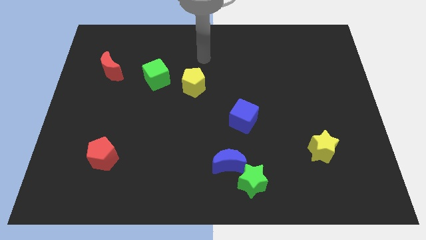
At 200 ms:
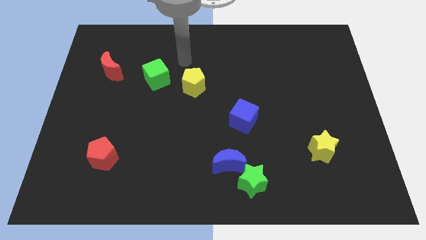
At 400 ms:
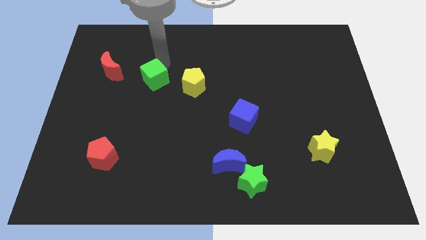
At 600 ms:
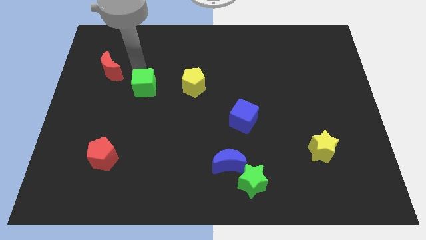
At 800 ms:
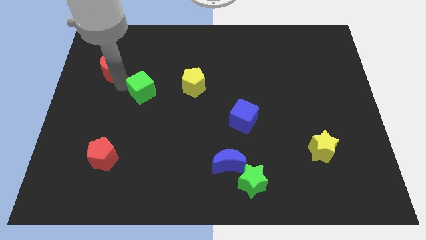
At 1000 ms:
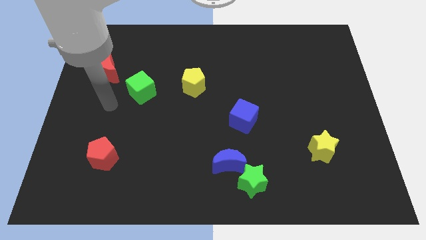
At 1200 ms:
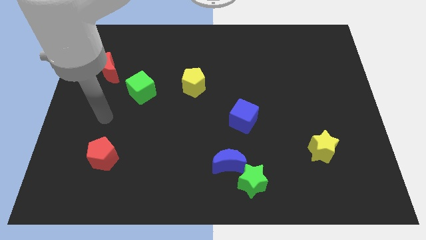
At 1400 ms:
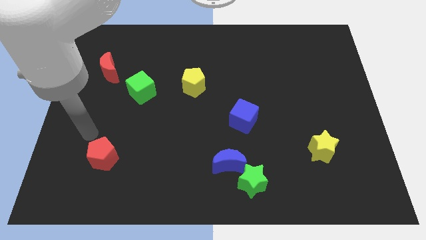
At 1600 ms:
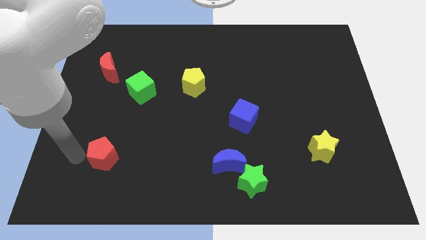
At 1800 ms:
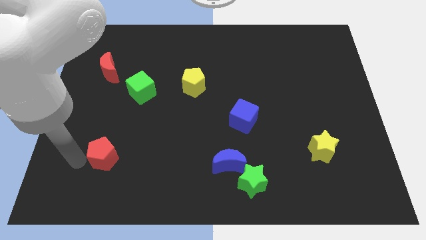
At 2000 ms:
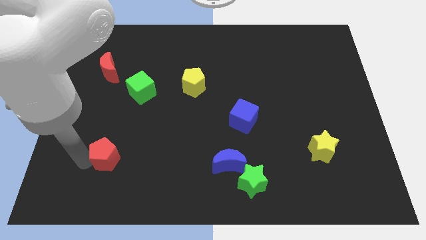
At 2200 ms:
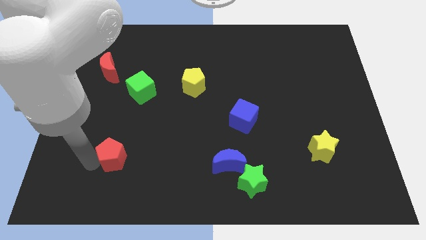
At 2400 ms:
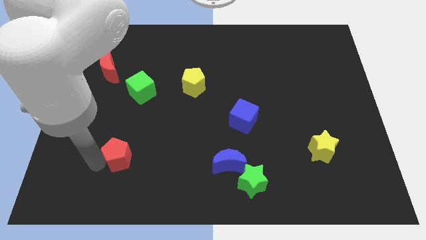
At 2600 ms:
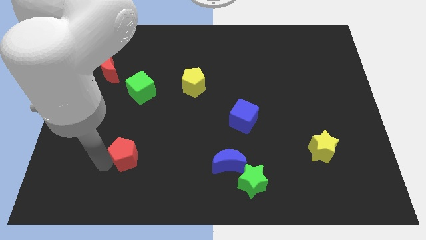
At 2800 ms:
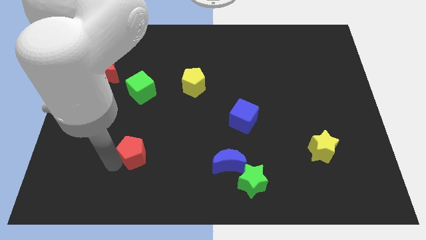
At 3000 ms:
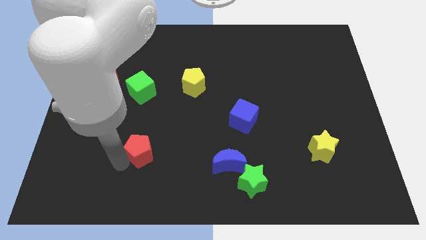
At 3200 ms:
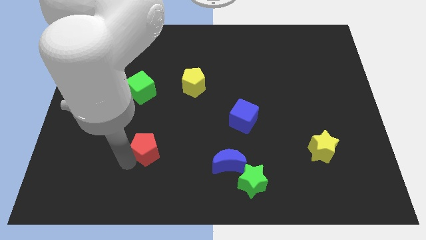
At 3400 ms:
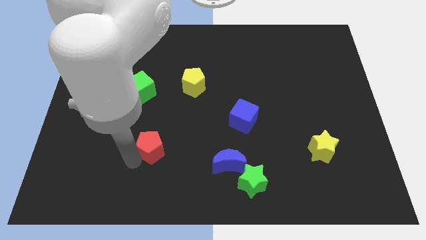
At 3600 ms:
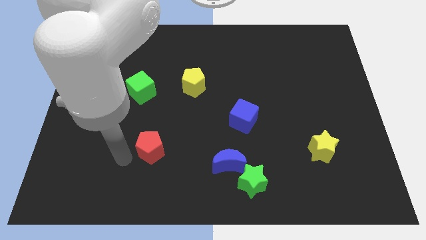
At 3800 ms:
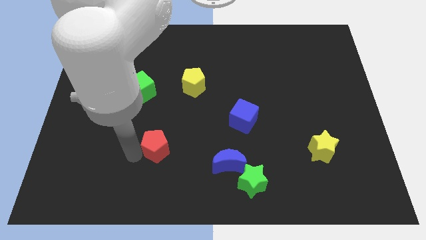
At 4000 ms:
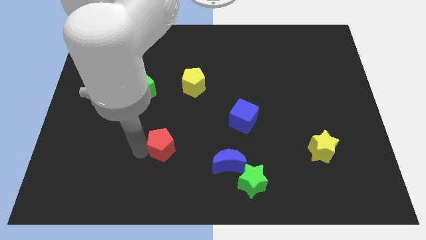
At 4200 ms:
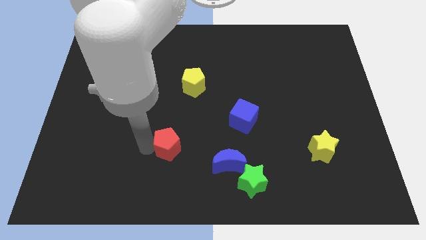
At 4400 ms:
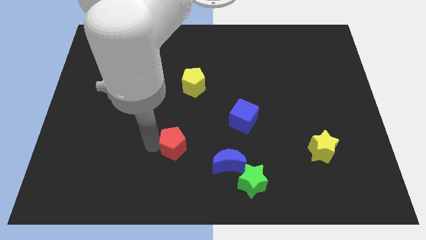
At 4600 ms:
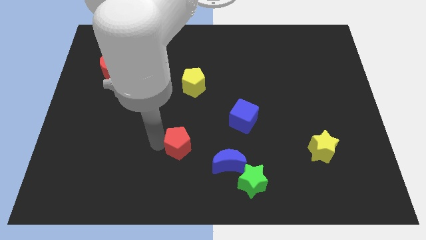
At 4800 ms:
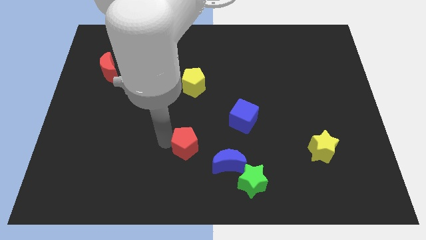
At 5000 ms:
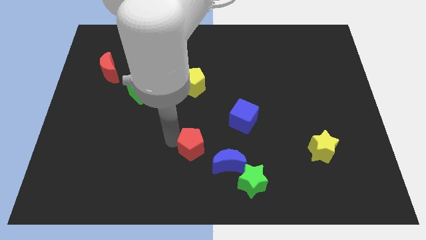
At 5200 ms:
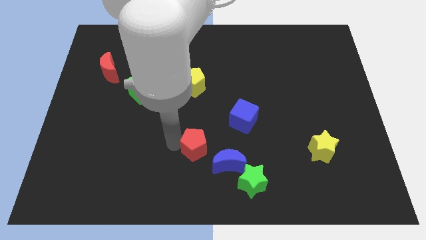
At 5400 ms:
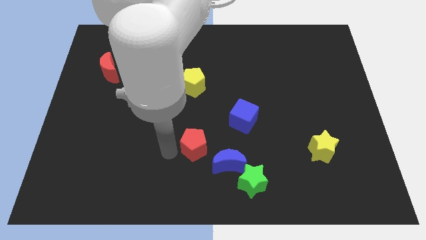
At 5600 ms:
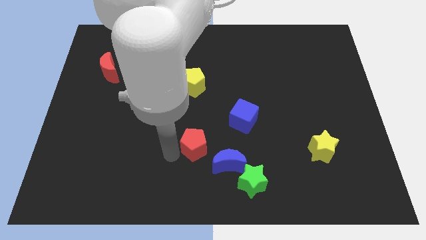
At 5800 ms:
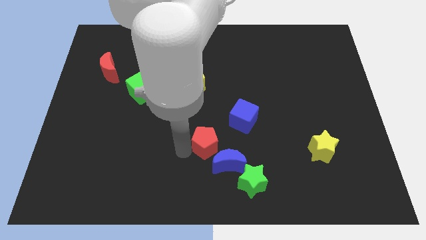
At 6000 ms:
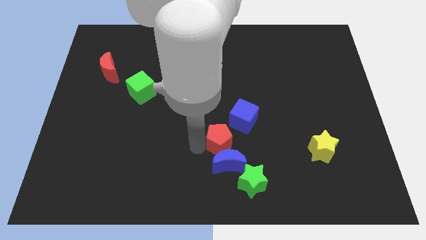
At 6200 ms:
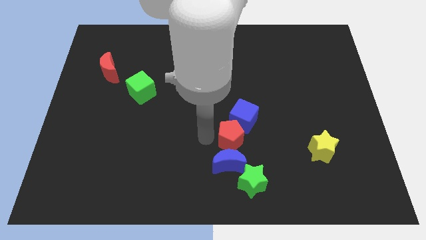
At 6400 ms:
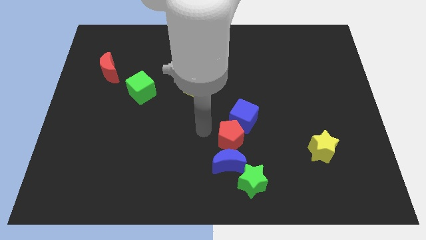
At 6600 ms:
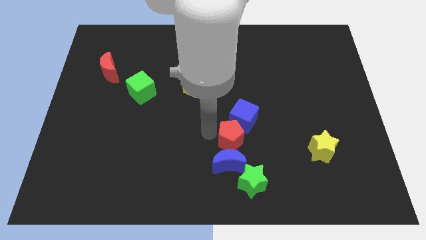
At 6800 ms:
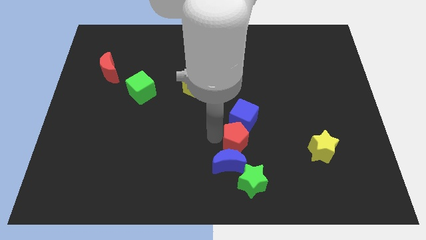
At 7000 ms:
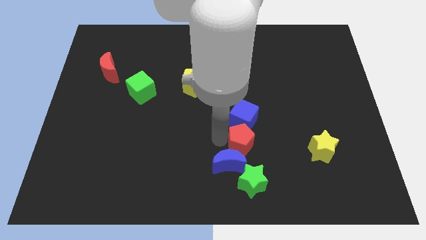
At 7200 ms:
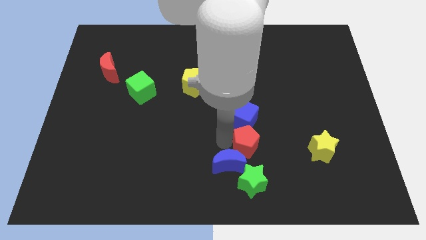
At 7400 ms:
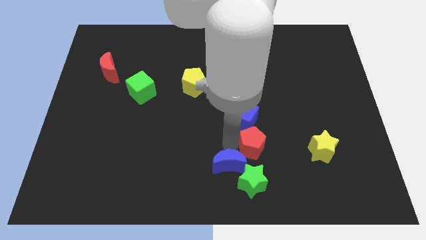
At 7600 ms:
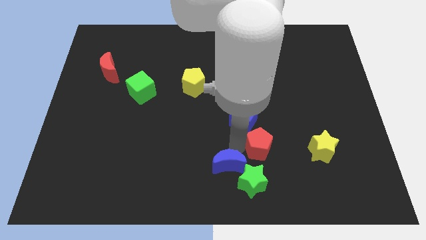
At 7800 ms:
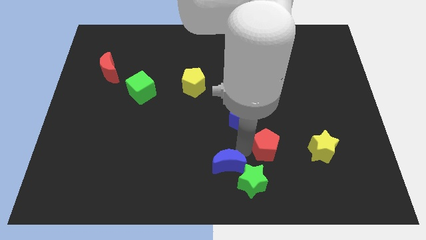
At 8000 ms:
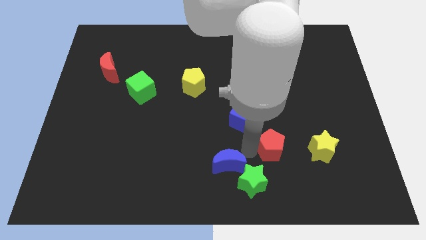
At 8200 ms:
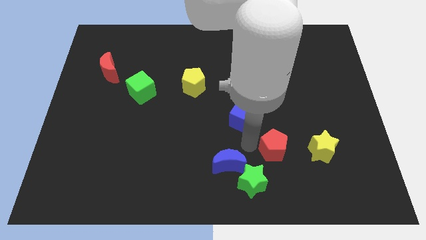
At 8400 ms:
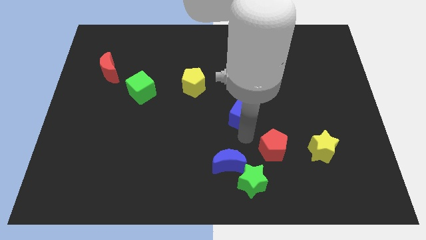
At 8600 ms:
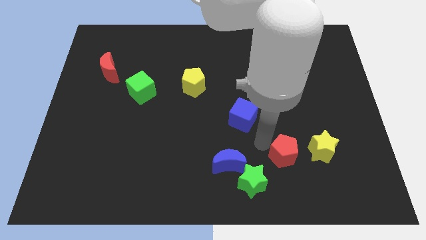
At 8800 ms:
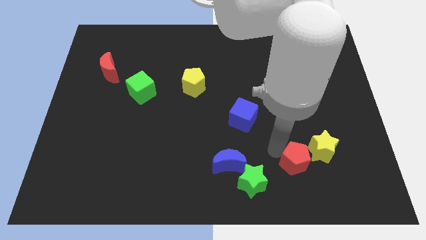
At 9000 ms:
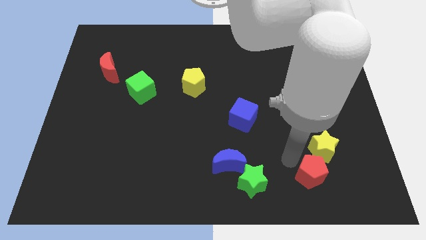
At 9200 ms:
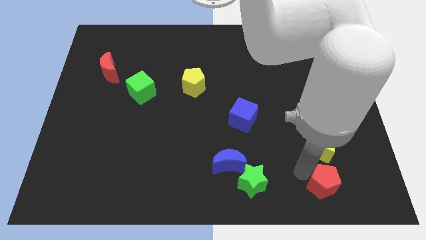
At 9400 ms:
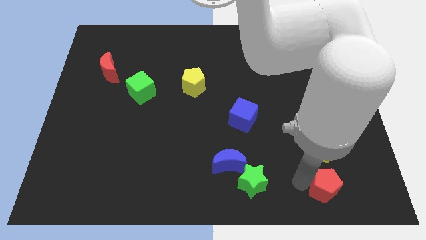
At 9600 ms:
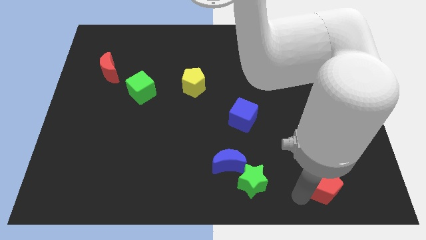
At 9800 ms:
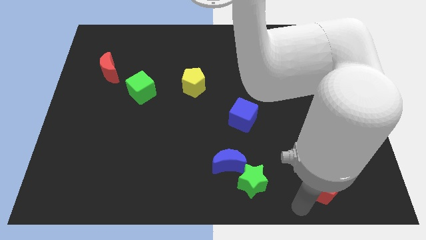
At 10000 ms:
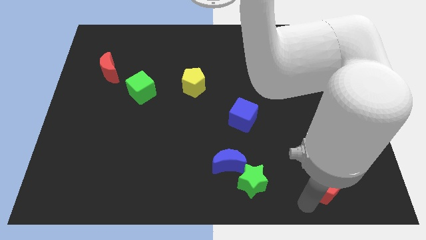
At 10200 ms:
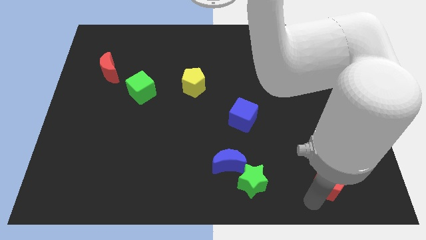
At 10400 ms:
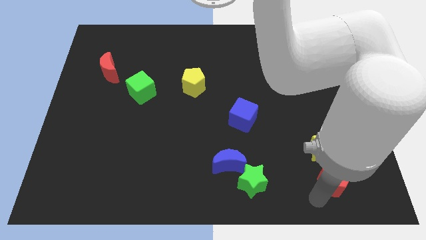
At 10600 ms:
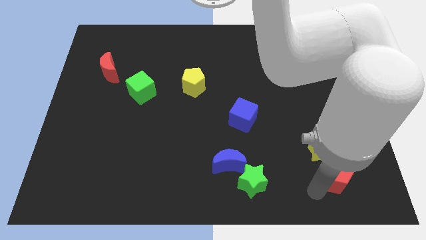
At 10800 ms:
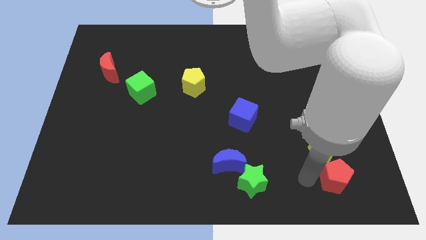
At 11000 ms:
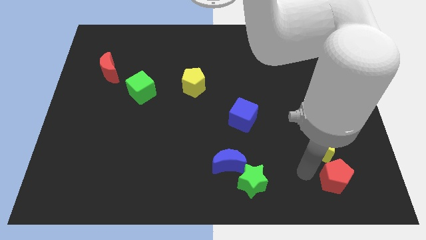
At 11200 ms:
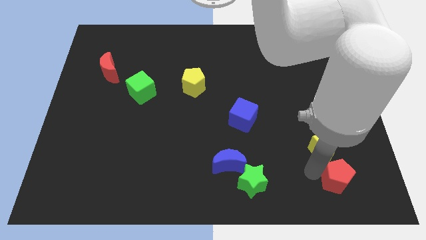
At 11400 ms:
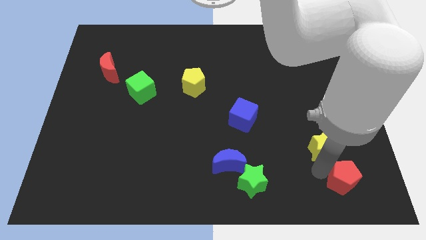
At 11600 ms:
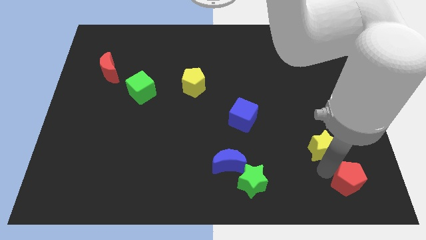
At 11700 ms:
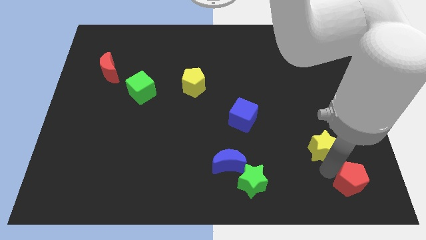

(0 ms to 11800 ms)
slide the red pentagon to the bottom right

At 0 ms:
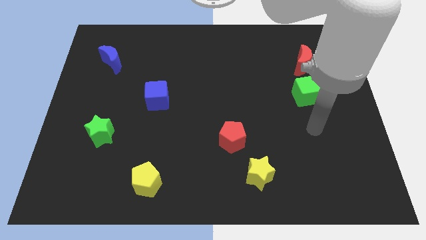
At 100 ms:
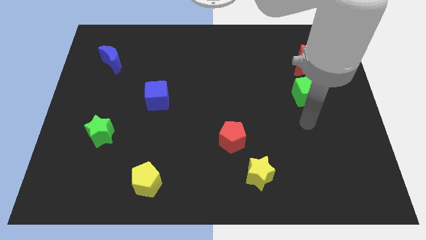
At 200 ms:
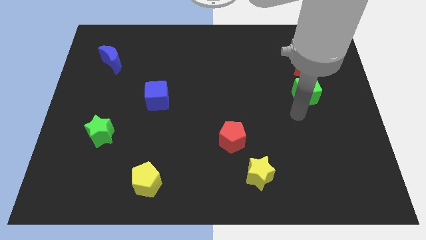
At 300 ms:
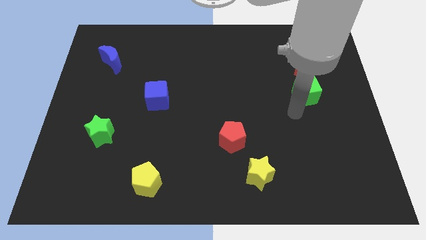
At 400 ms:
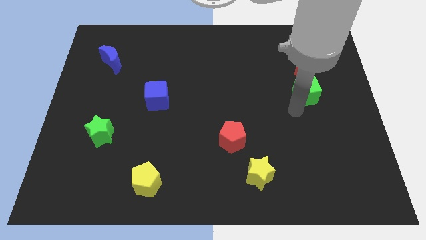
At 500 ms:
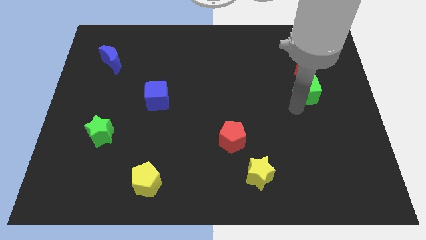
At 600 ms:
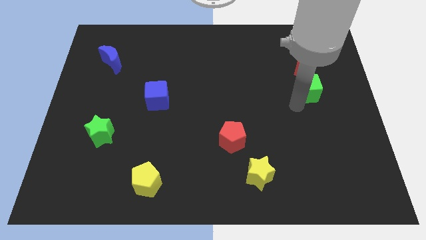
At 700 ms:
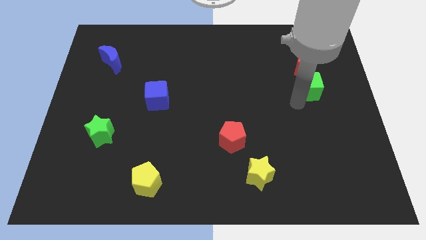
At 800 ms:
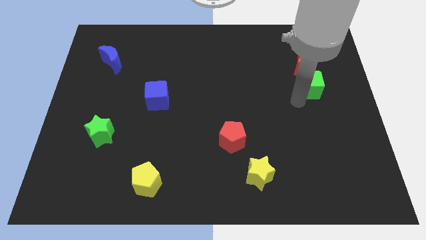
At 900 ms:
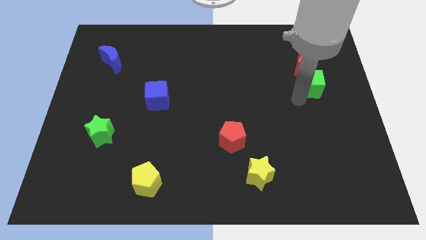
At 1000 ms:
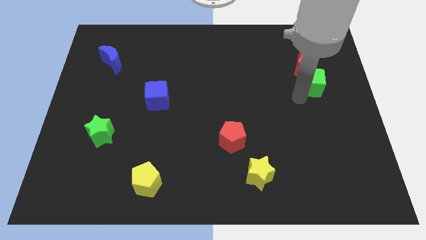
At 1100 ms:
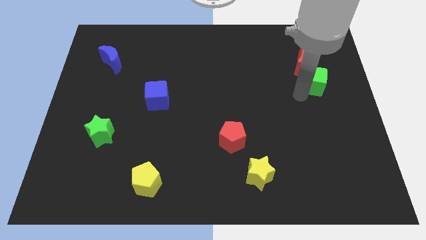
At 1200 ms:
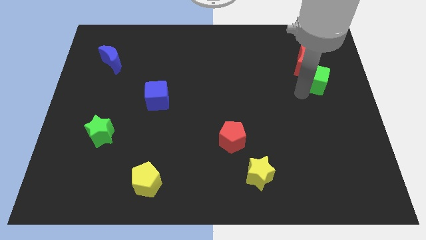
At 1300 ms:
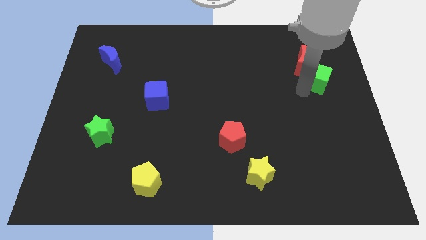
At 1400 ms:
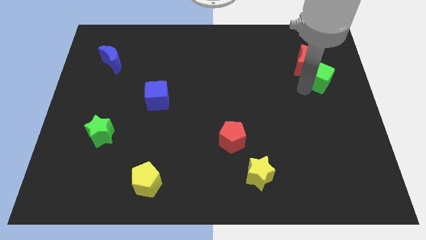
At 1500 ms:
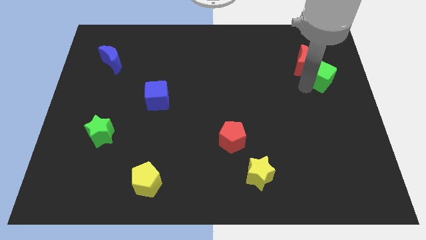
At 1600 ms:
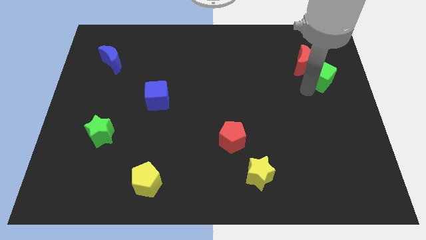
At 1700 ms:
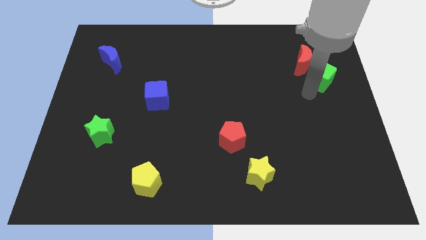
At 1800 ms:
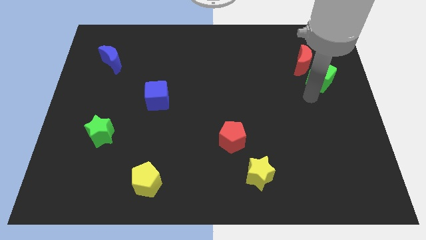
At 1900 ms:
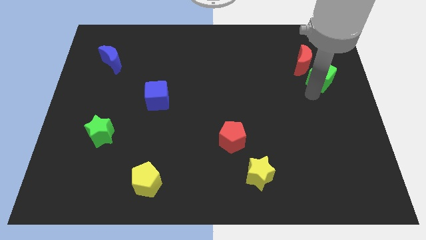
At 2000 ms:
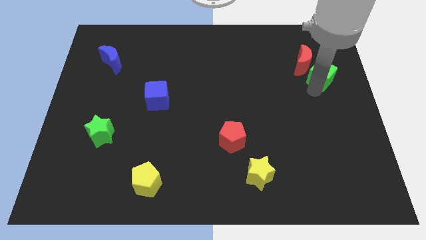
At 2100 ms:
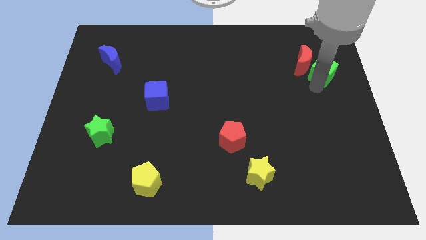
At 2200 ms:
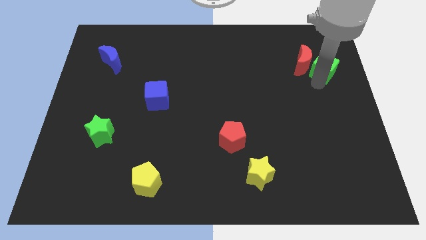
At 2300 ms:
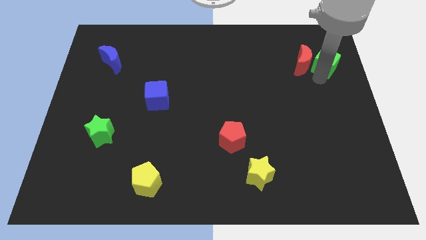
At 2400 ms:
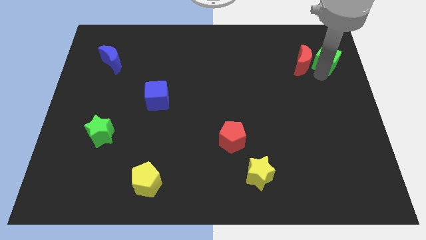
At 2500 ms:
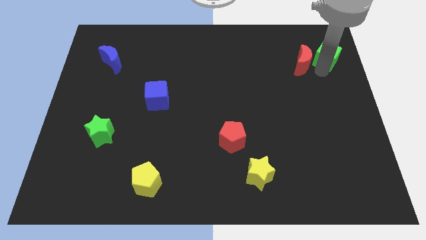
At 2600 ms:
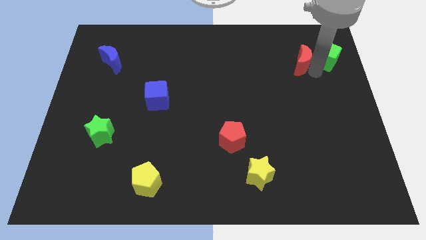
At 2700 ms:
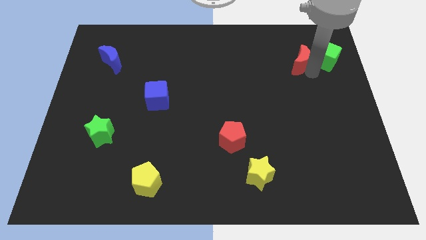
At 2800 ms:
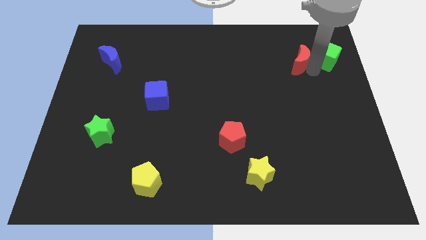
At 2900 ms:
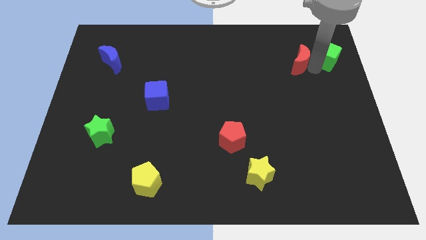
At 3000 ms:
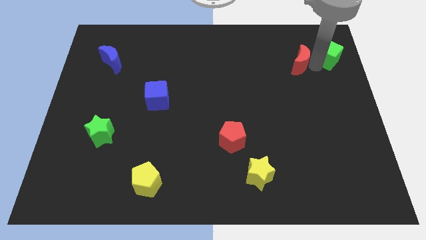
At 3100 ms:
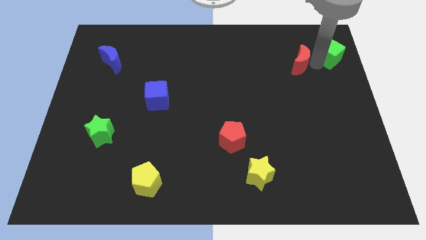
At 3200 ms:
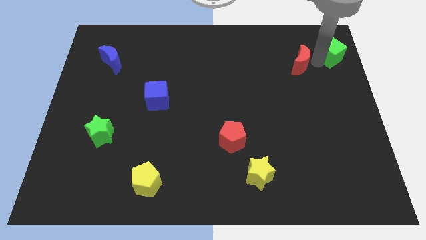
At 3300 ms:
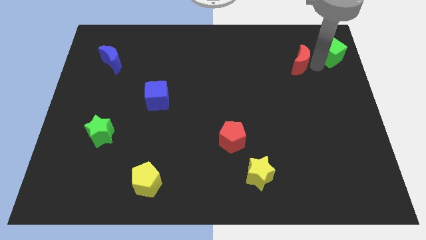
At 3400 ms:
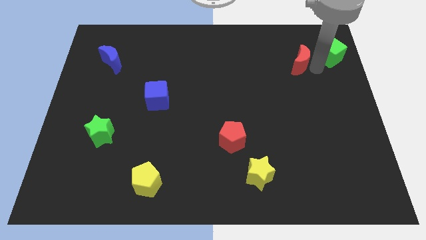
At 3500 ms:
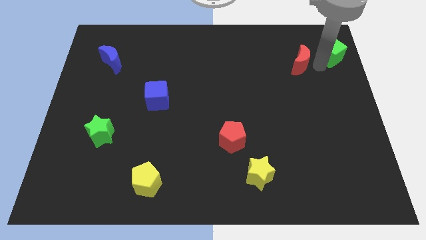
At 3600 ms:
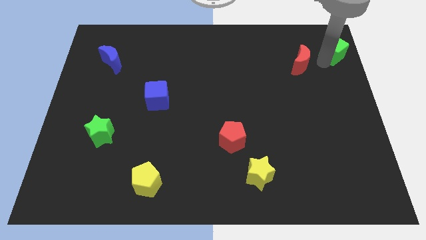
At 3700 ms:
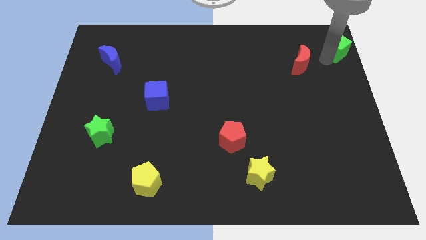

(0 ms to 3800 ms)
push the green cube to the top right corner
